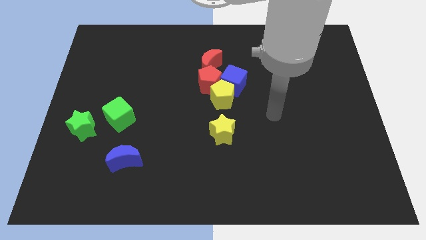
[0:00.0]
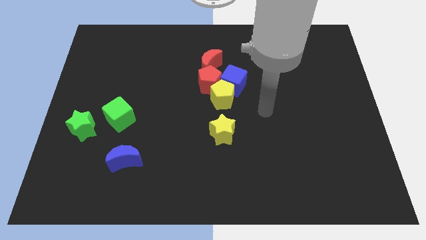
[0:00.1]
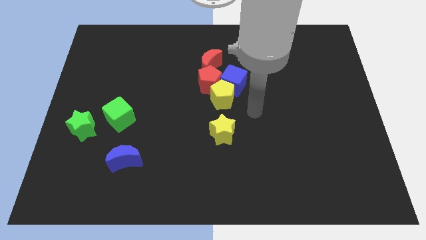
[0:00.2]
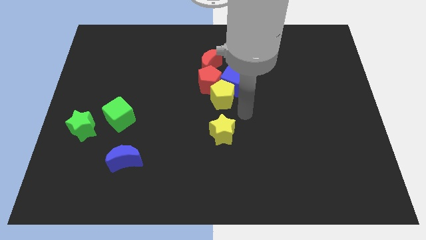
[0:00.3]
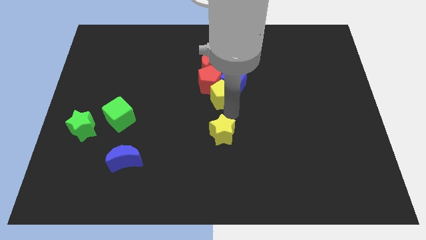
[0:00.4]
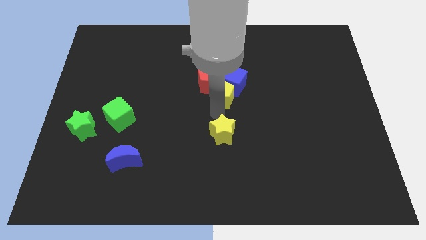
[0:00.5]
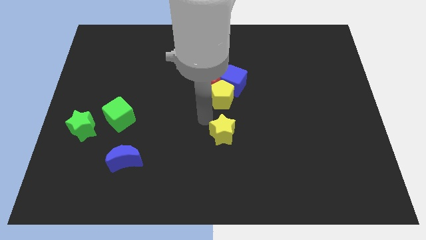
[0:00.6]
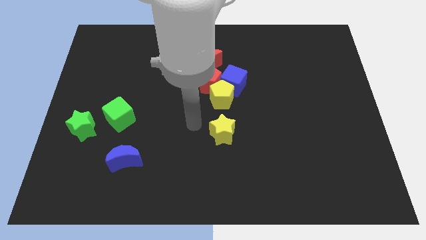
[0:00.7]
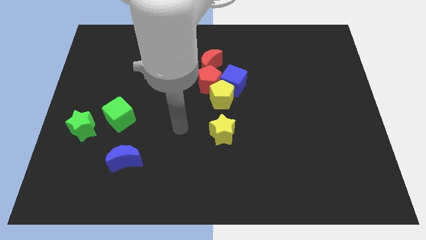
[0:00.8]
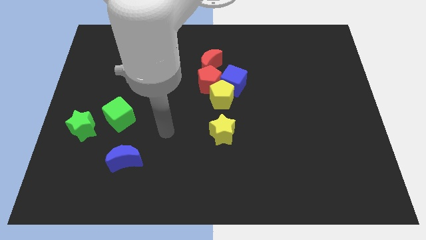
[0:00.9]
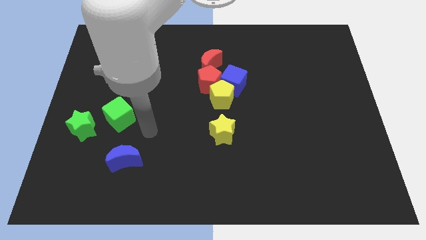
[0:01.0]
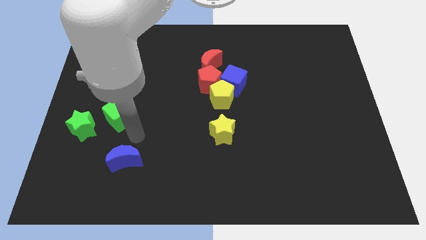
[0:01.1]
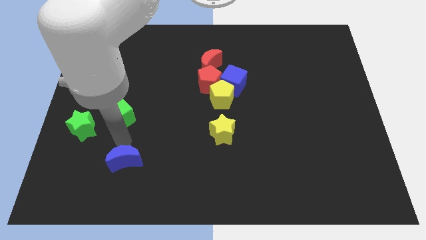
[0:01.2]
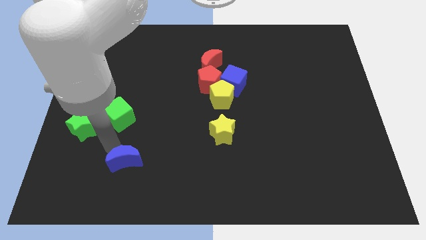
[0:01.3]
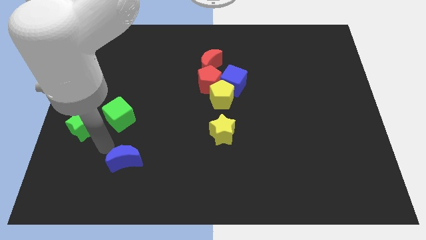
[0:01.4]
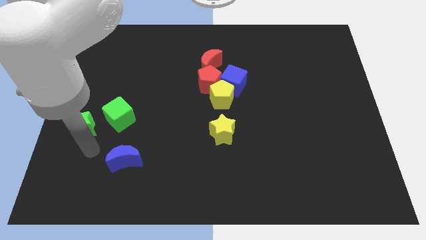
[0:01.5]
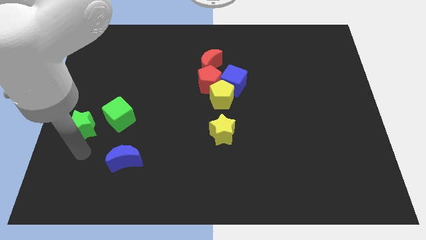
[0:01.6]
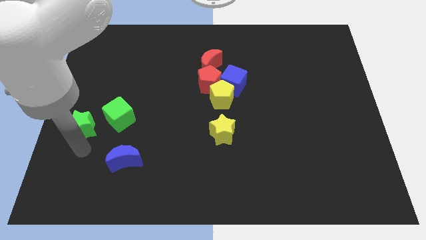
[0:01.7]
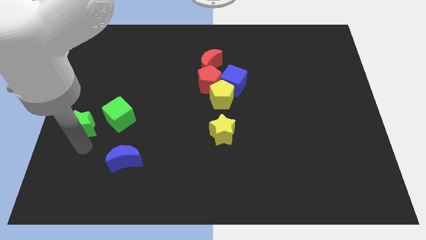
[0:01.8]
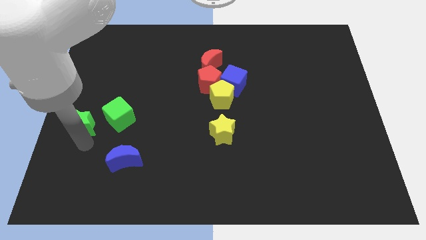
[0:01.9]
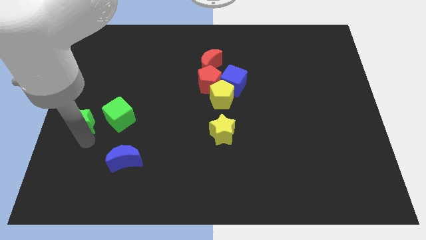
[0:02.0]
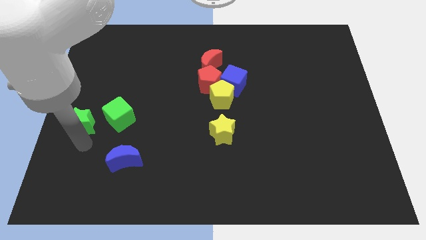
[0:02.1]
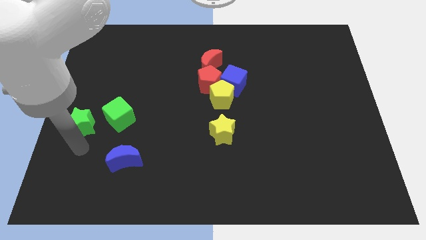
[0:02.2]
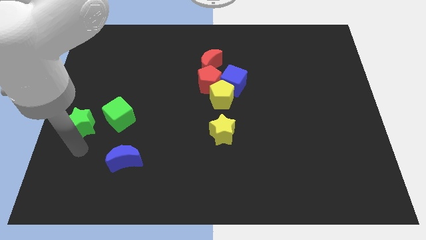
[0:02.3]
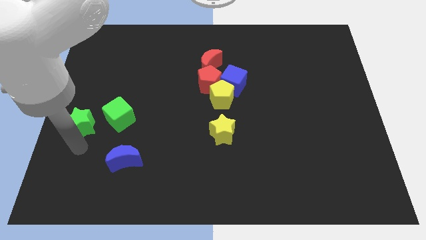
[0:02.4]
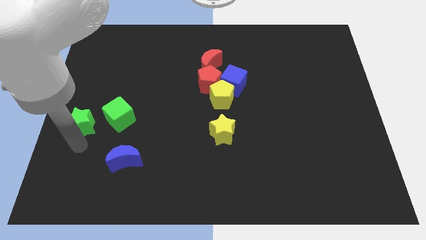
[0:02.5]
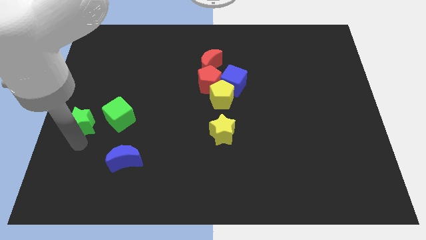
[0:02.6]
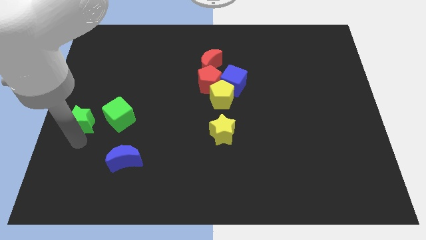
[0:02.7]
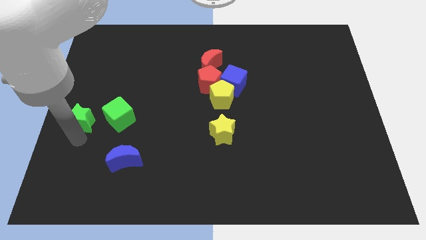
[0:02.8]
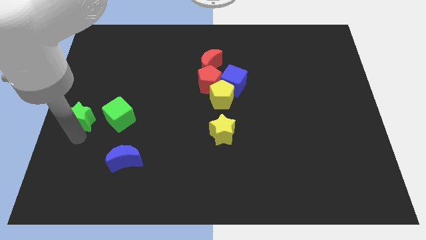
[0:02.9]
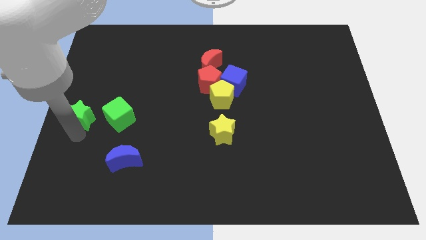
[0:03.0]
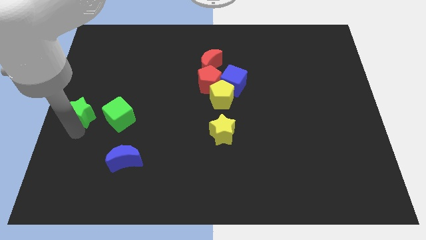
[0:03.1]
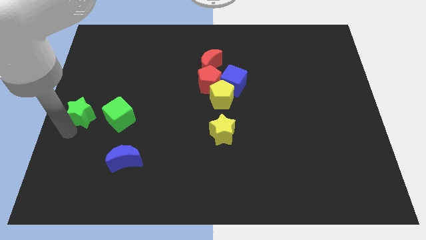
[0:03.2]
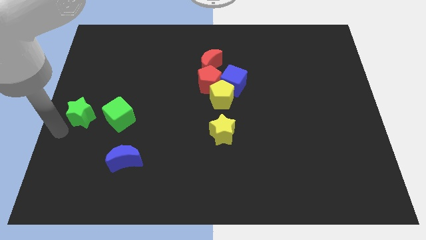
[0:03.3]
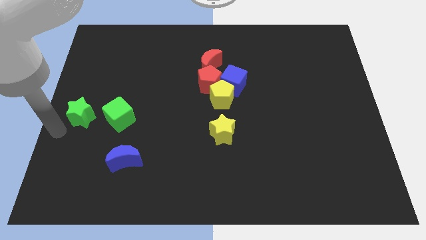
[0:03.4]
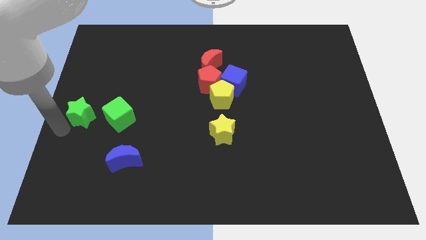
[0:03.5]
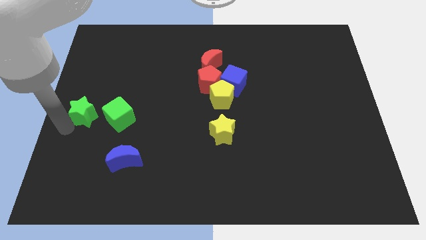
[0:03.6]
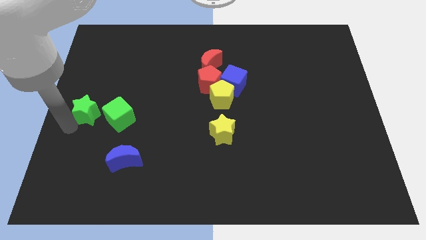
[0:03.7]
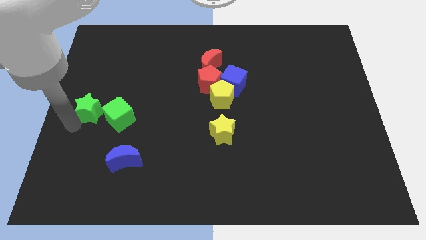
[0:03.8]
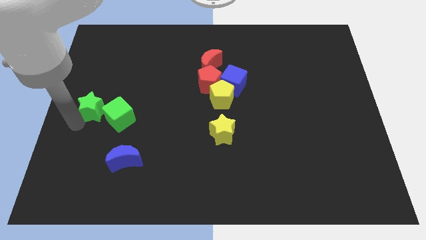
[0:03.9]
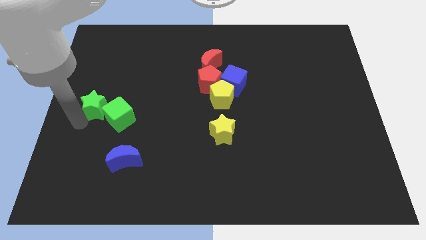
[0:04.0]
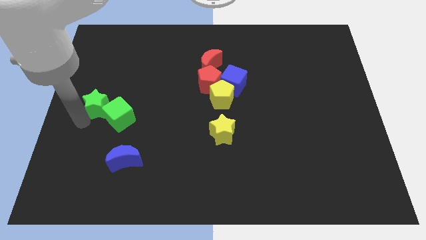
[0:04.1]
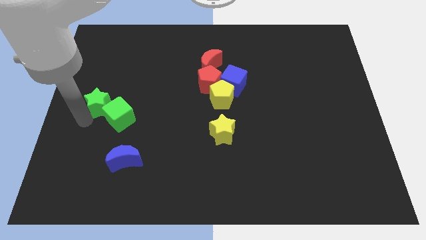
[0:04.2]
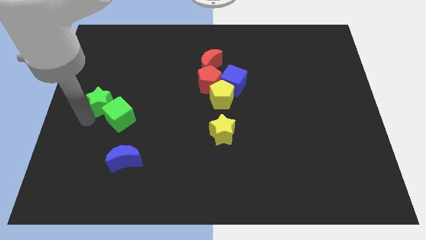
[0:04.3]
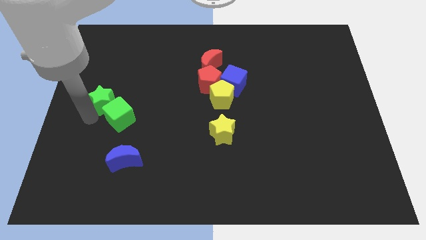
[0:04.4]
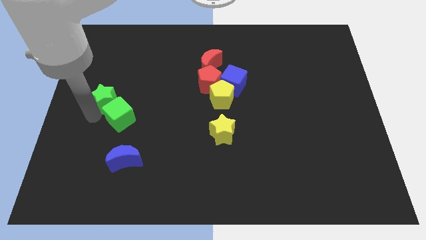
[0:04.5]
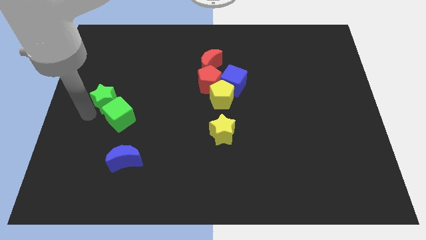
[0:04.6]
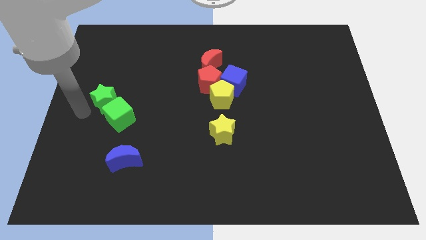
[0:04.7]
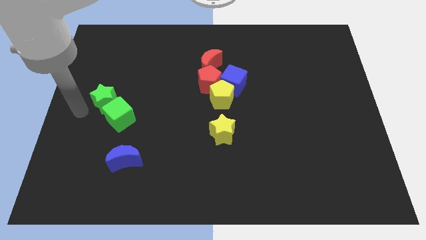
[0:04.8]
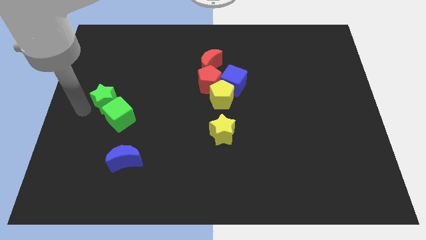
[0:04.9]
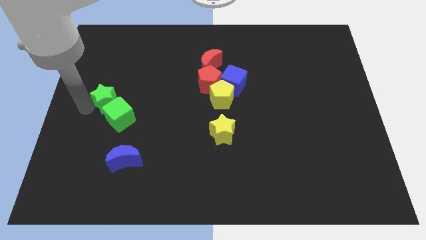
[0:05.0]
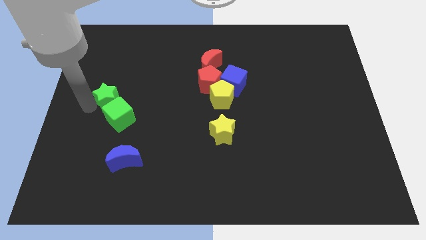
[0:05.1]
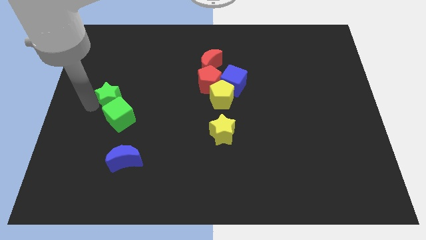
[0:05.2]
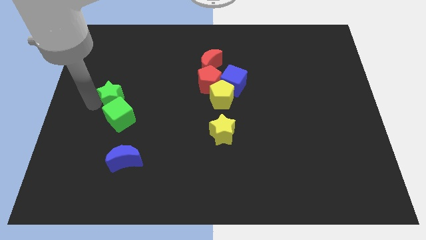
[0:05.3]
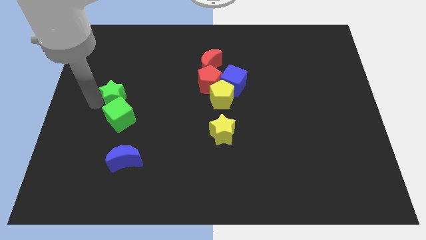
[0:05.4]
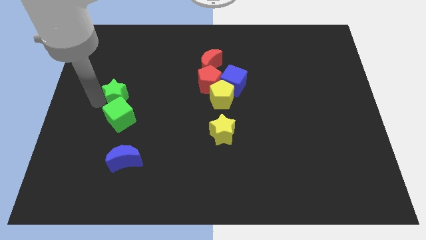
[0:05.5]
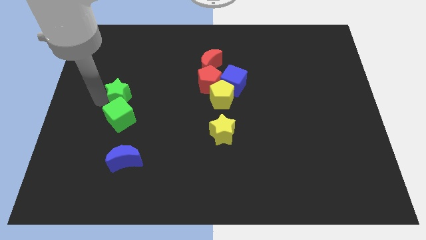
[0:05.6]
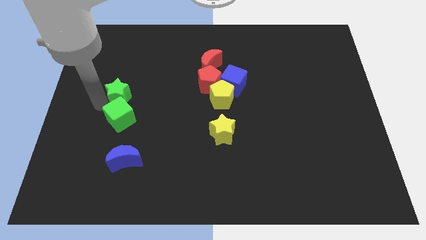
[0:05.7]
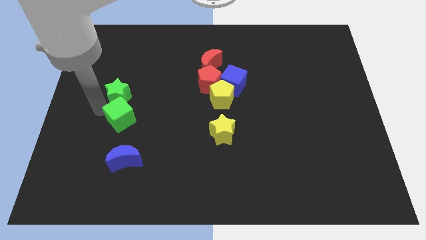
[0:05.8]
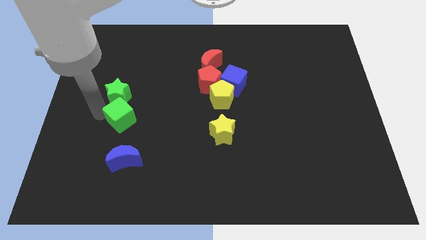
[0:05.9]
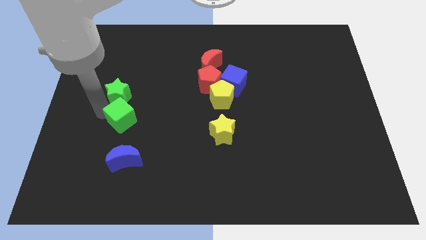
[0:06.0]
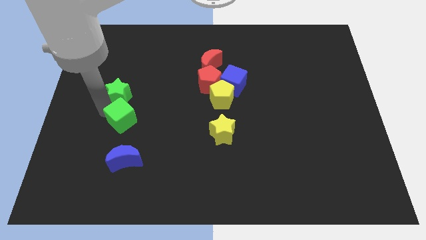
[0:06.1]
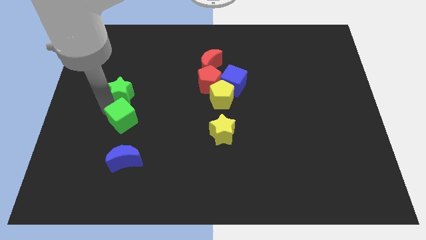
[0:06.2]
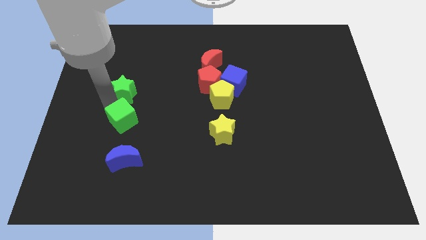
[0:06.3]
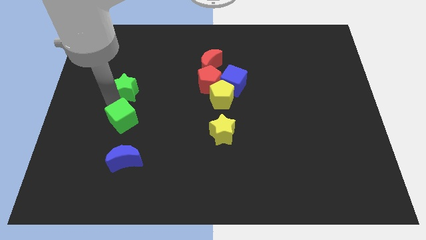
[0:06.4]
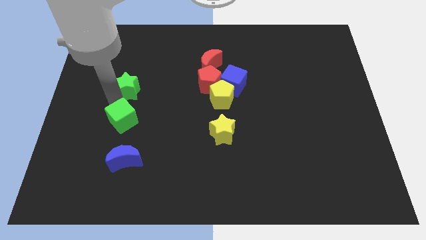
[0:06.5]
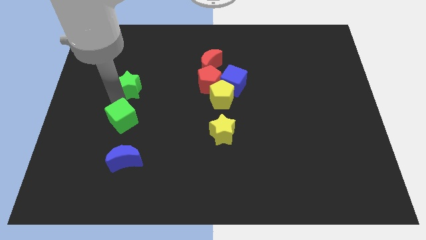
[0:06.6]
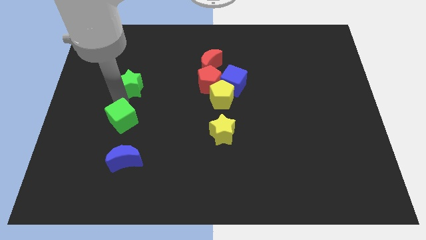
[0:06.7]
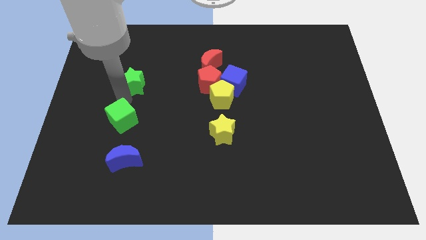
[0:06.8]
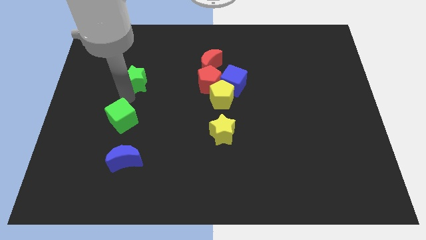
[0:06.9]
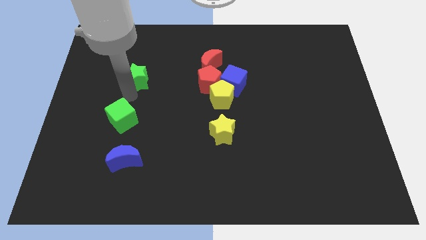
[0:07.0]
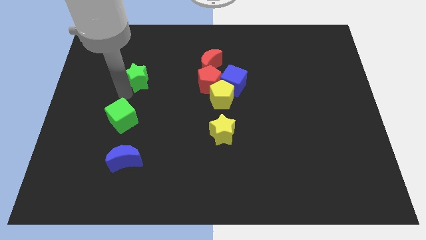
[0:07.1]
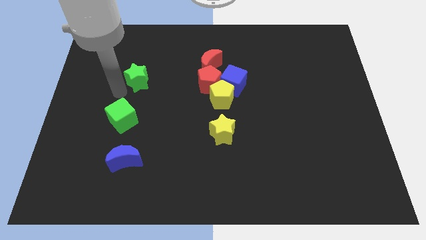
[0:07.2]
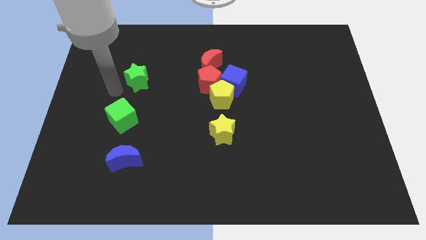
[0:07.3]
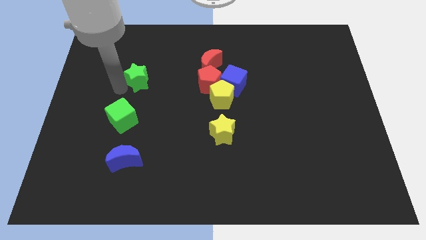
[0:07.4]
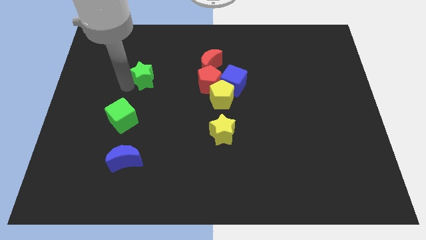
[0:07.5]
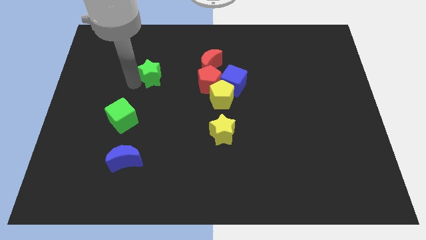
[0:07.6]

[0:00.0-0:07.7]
slide the green star diagonally up and right
